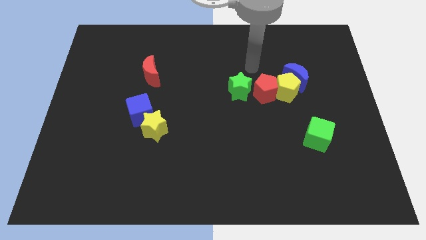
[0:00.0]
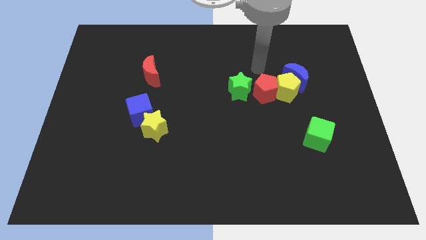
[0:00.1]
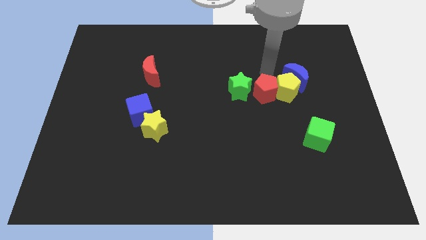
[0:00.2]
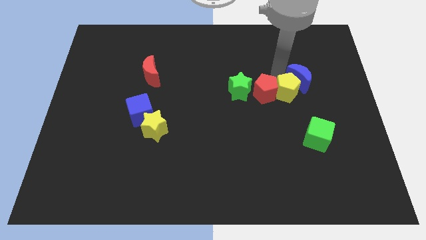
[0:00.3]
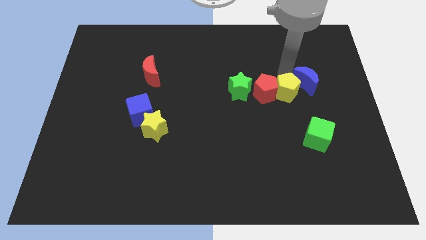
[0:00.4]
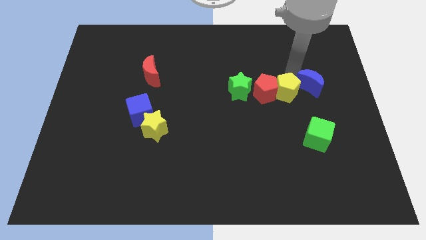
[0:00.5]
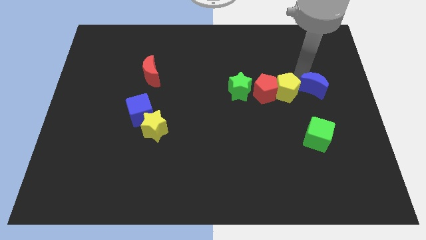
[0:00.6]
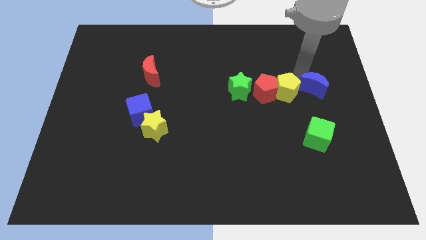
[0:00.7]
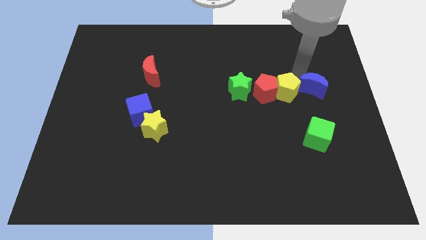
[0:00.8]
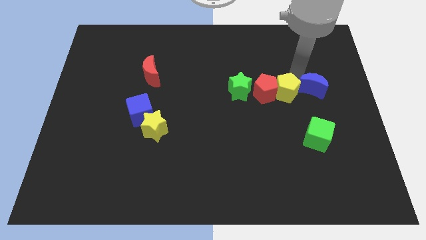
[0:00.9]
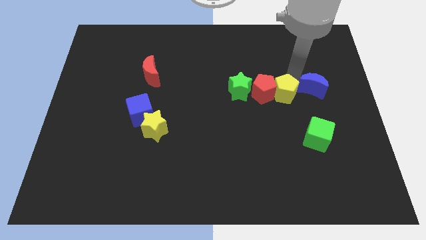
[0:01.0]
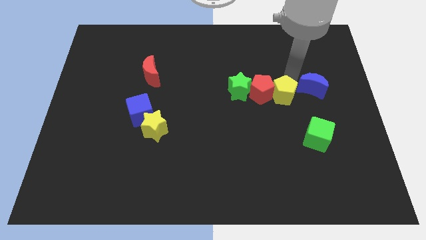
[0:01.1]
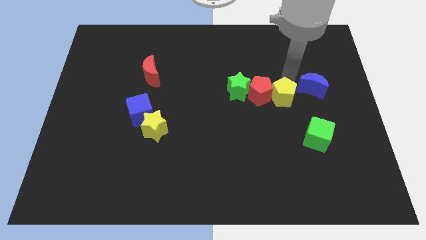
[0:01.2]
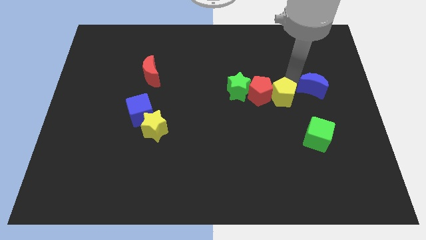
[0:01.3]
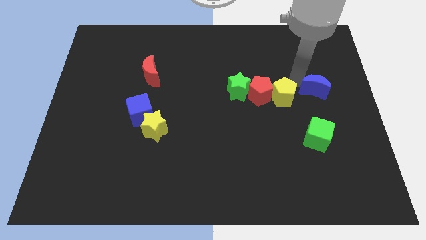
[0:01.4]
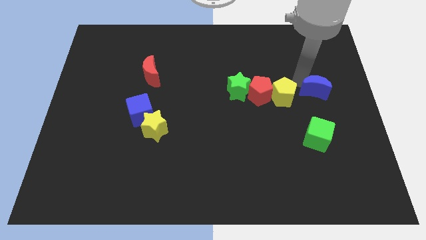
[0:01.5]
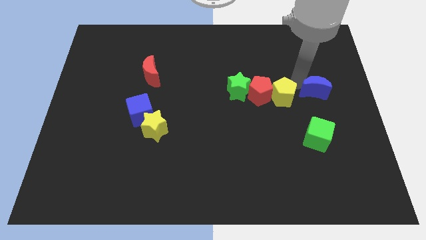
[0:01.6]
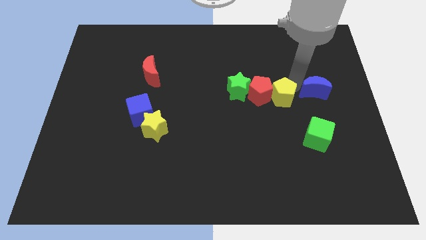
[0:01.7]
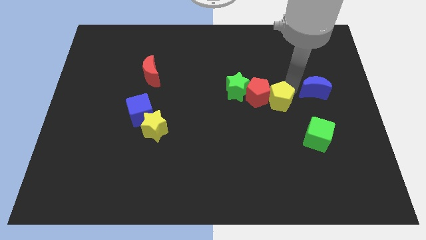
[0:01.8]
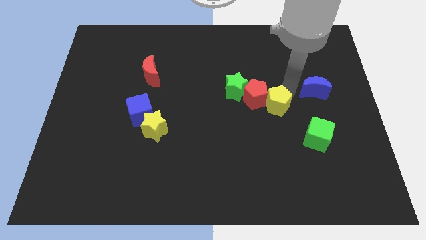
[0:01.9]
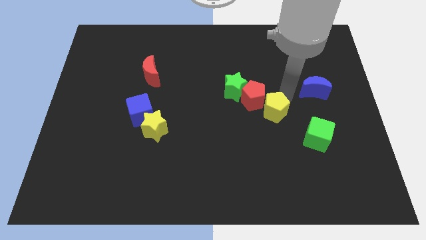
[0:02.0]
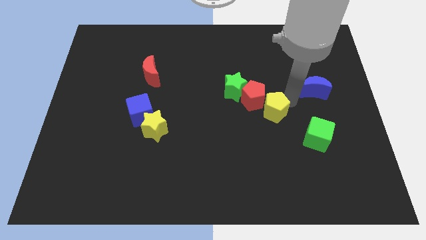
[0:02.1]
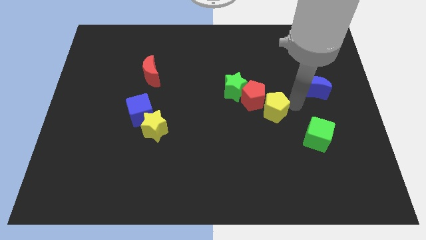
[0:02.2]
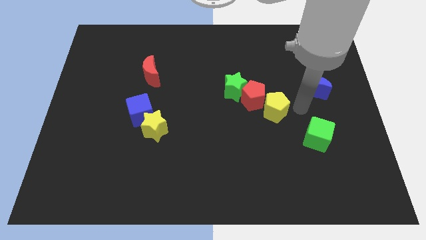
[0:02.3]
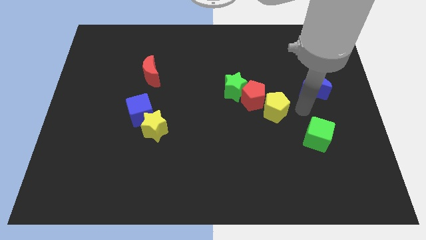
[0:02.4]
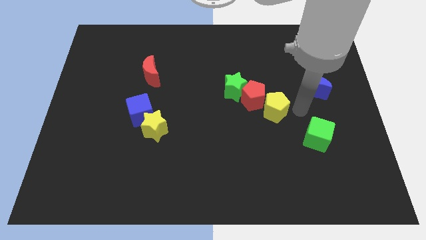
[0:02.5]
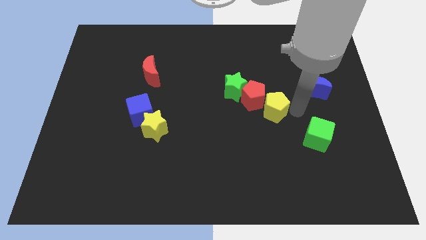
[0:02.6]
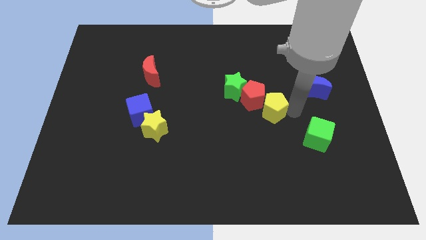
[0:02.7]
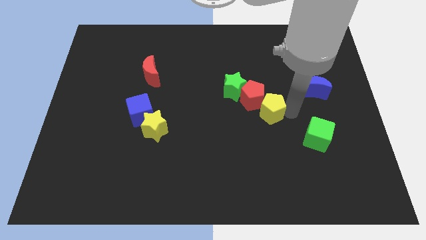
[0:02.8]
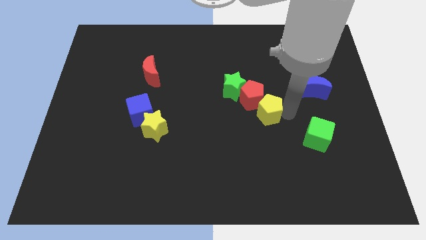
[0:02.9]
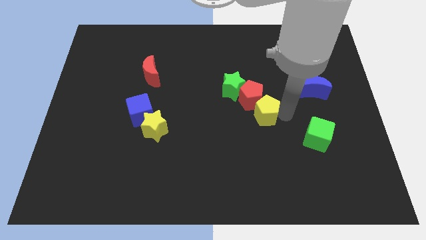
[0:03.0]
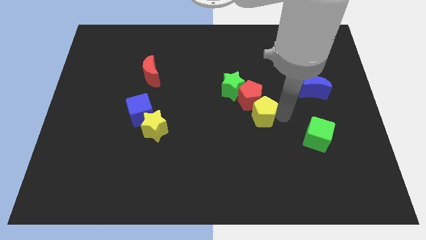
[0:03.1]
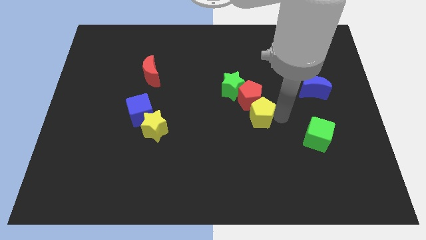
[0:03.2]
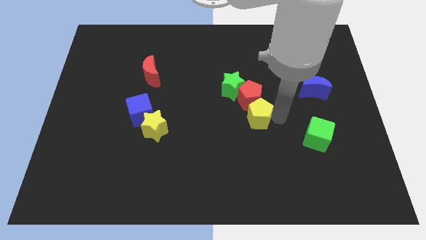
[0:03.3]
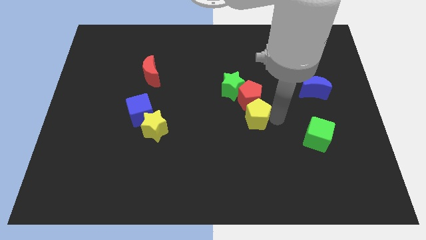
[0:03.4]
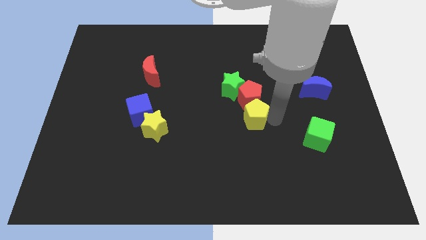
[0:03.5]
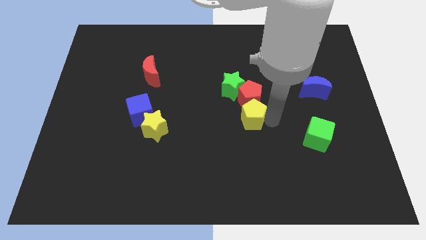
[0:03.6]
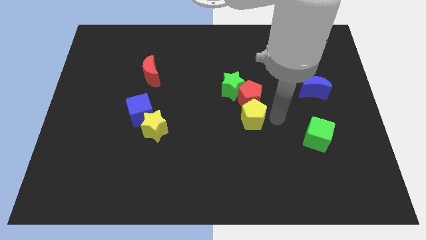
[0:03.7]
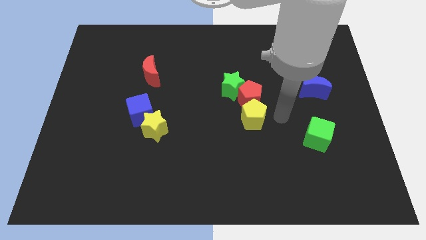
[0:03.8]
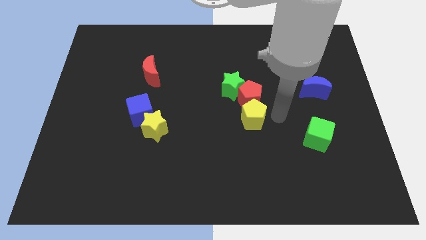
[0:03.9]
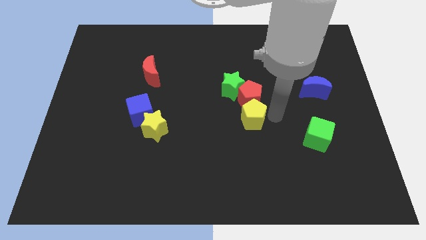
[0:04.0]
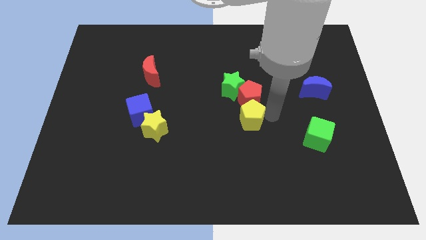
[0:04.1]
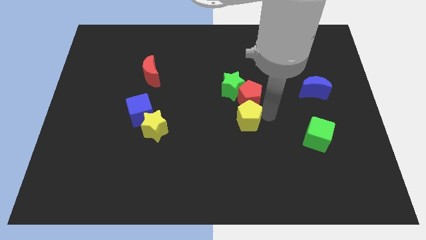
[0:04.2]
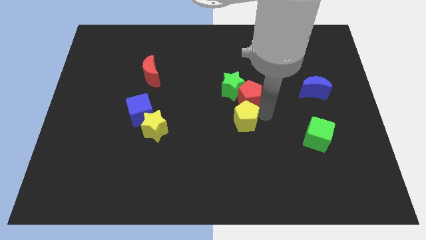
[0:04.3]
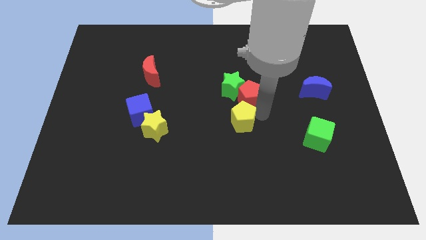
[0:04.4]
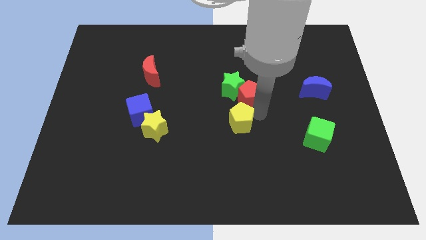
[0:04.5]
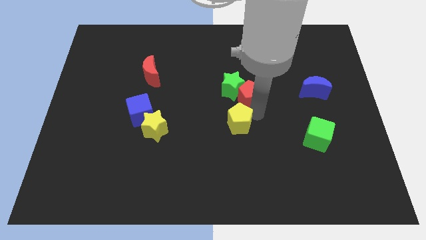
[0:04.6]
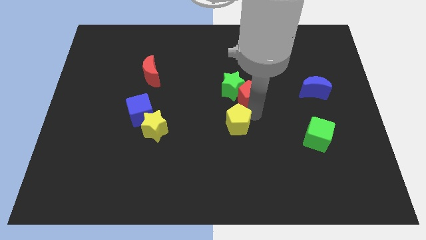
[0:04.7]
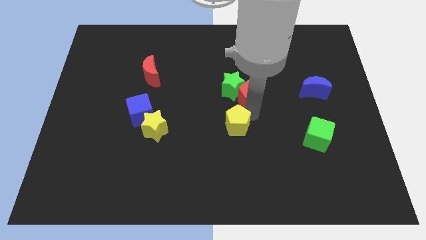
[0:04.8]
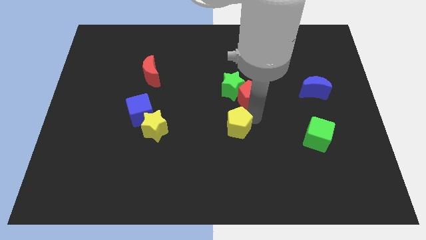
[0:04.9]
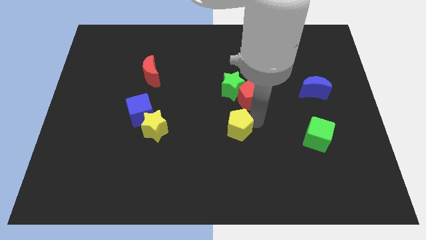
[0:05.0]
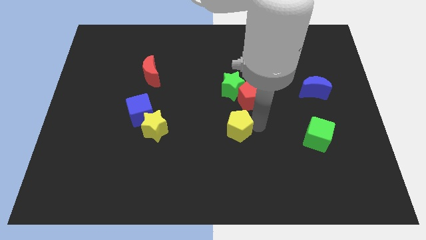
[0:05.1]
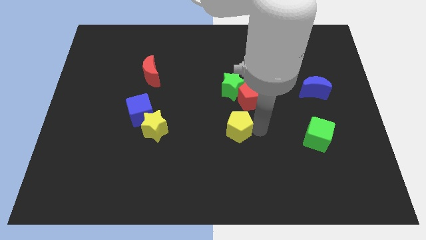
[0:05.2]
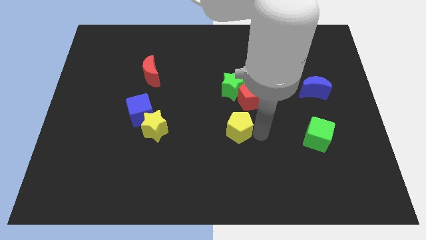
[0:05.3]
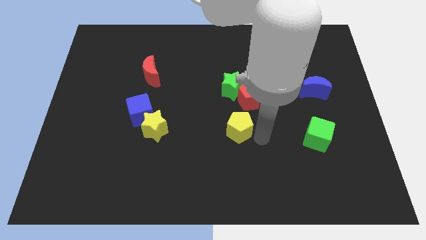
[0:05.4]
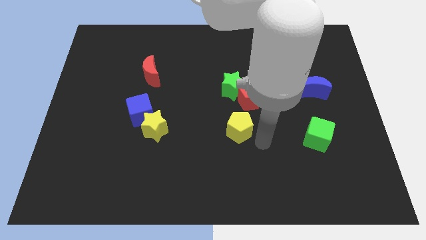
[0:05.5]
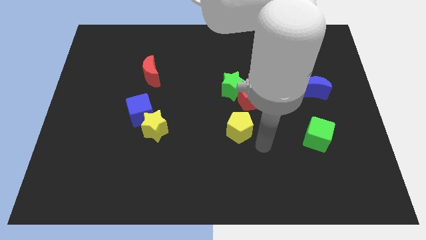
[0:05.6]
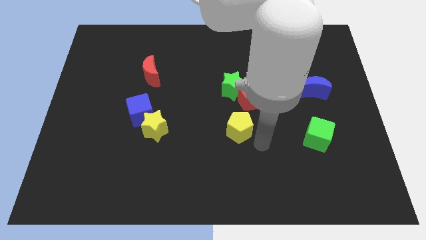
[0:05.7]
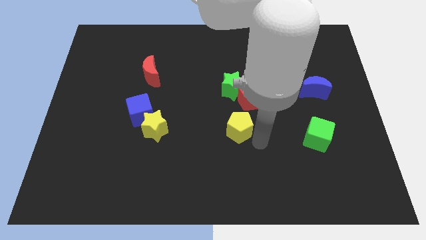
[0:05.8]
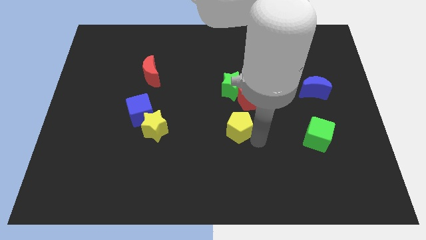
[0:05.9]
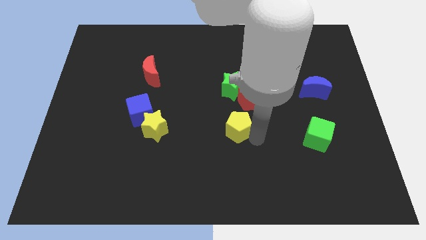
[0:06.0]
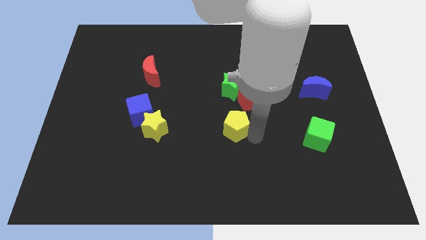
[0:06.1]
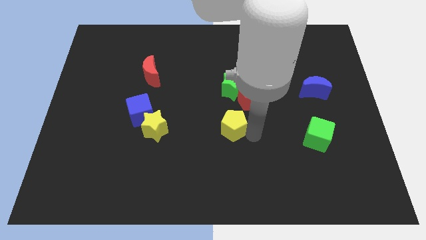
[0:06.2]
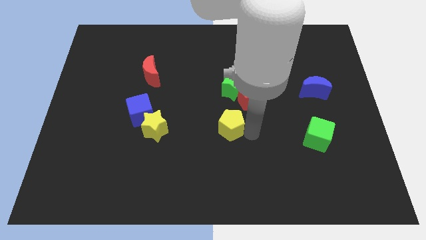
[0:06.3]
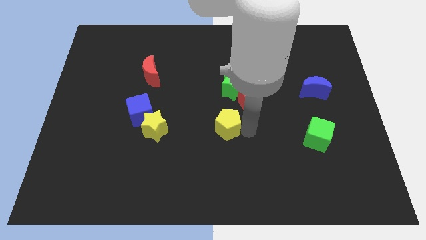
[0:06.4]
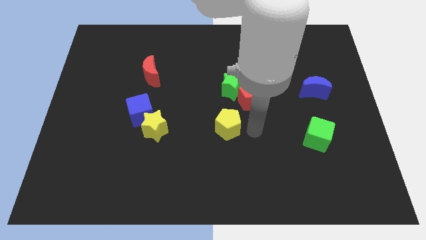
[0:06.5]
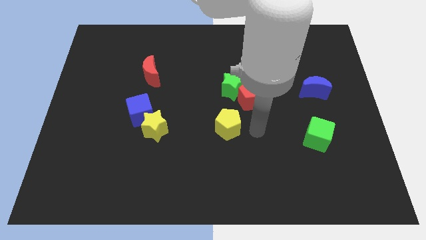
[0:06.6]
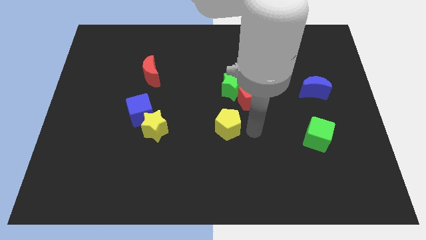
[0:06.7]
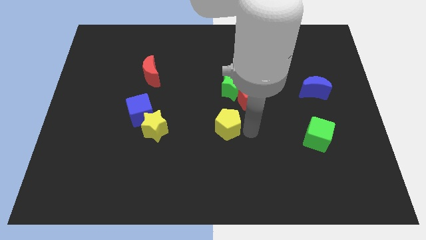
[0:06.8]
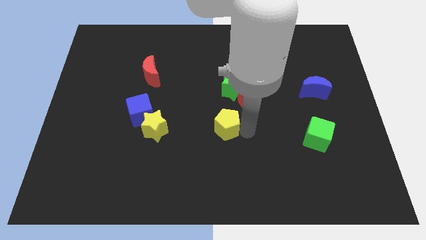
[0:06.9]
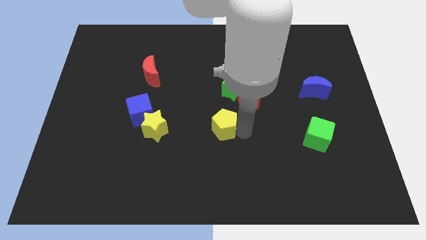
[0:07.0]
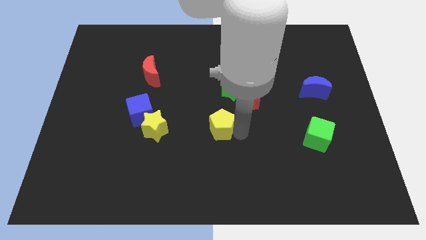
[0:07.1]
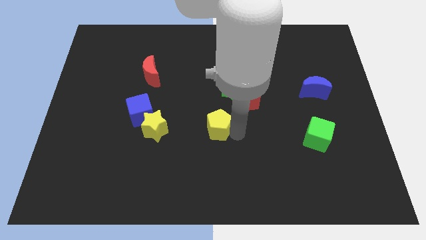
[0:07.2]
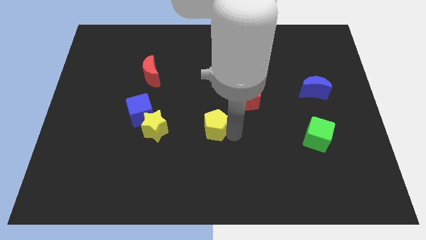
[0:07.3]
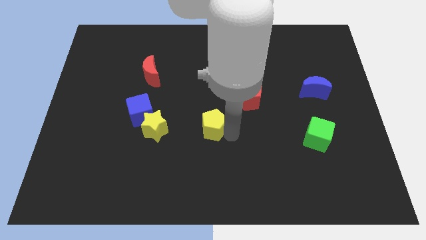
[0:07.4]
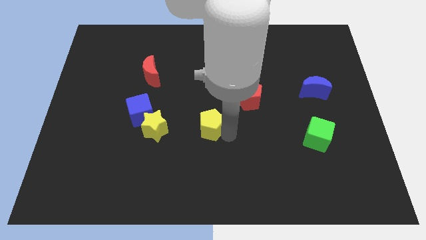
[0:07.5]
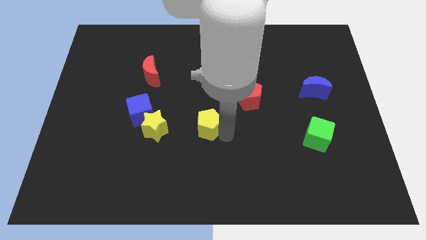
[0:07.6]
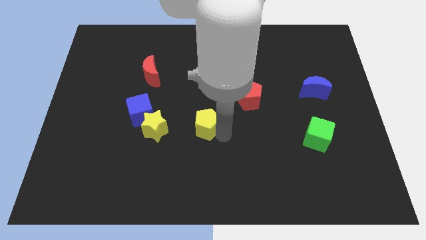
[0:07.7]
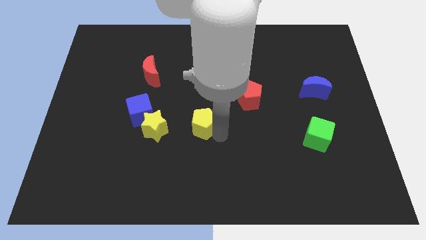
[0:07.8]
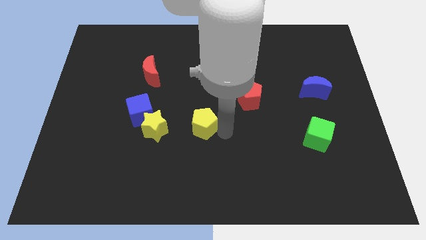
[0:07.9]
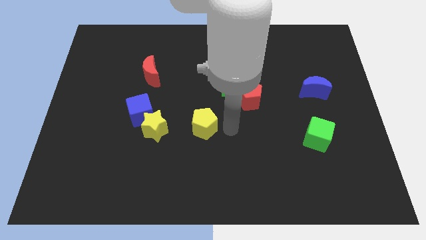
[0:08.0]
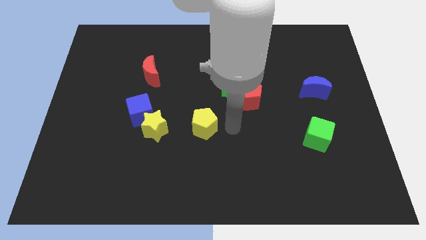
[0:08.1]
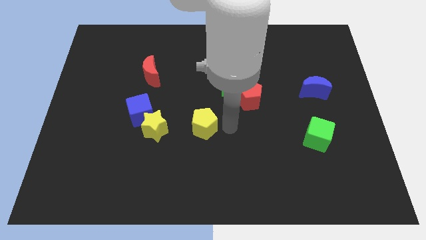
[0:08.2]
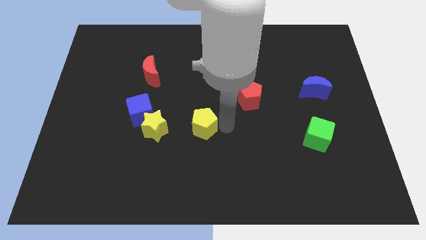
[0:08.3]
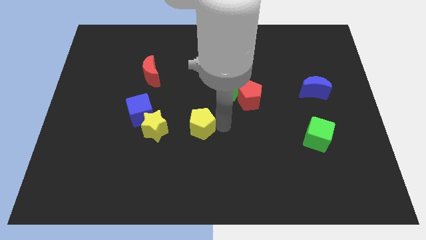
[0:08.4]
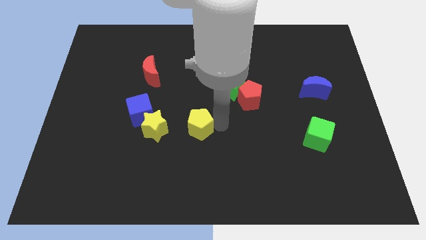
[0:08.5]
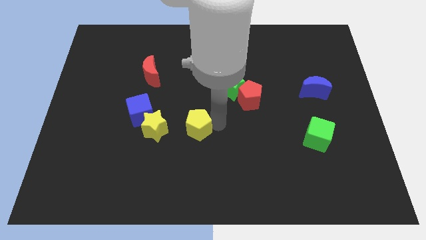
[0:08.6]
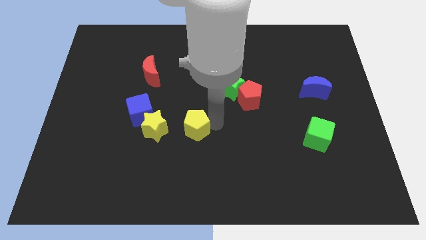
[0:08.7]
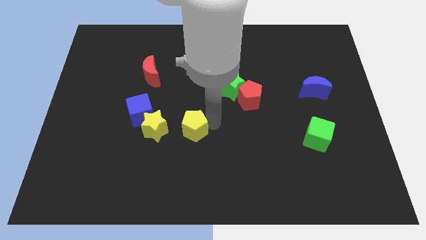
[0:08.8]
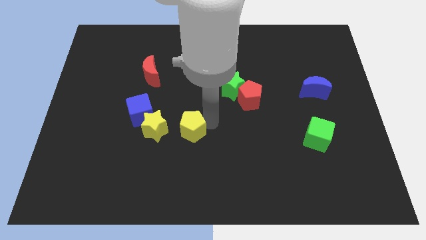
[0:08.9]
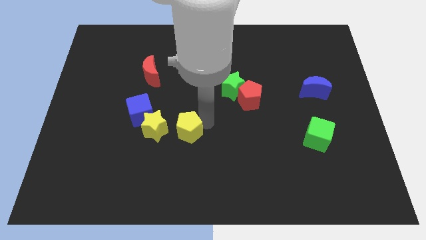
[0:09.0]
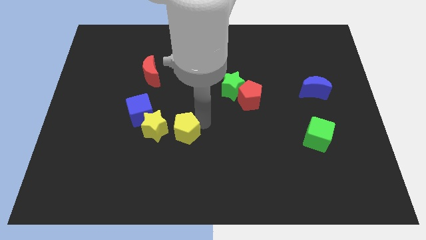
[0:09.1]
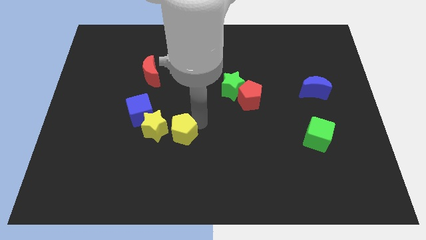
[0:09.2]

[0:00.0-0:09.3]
move the yellow pentagon close to the yellow star
